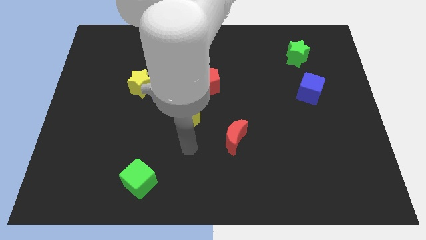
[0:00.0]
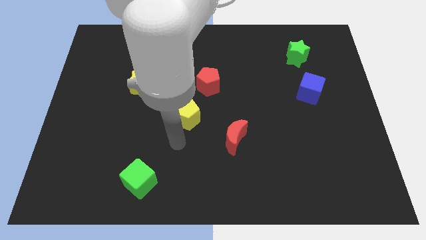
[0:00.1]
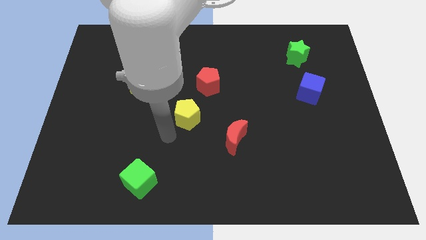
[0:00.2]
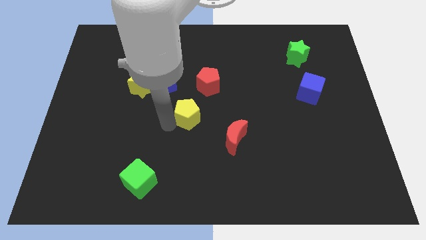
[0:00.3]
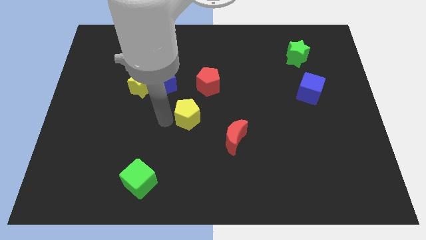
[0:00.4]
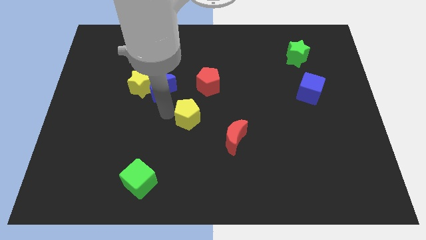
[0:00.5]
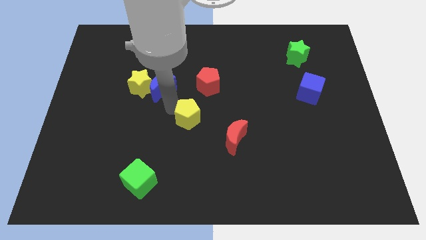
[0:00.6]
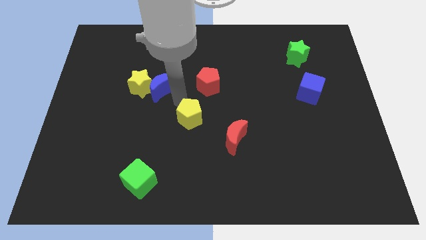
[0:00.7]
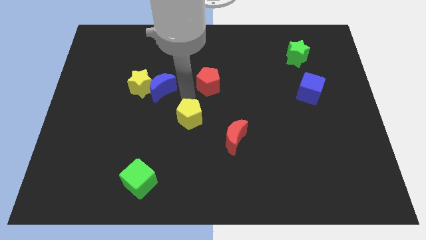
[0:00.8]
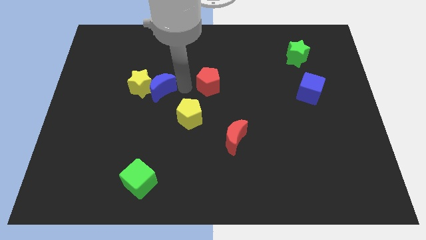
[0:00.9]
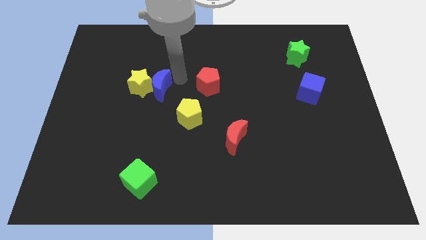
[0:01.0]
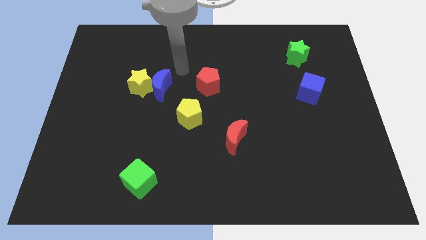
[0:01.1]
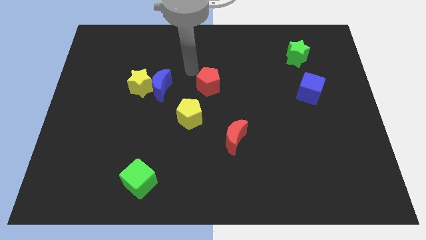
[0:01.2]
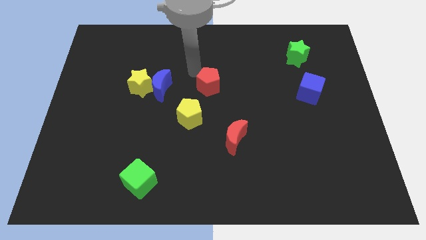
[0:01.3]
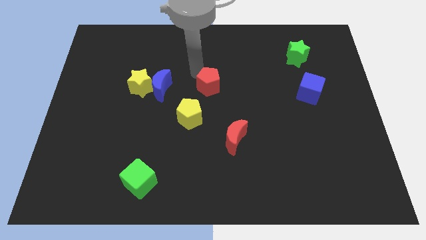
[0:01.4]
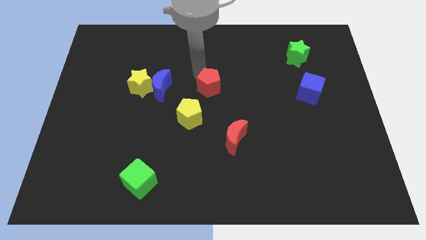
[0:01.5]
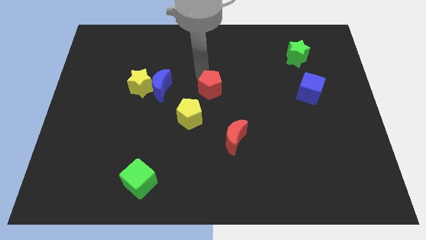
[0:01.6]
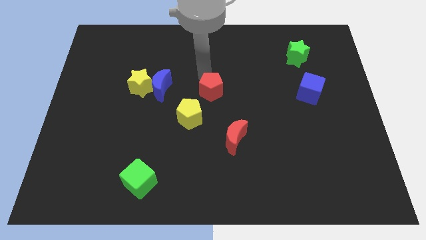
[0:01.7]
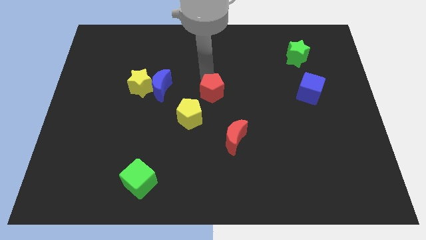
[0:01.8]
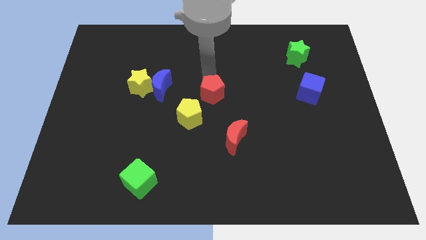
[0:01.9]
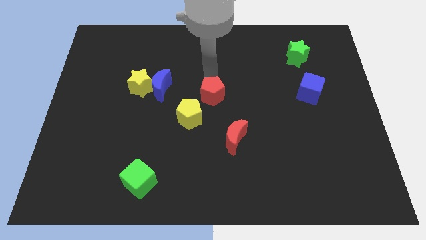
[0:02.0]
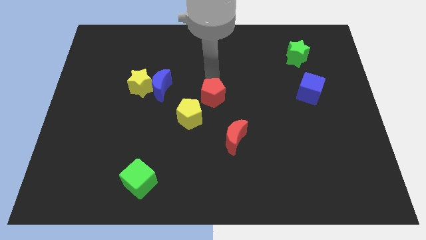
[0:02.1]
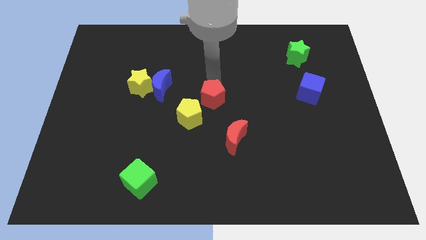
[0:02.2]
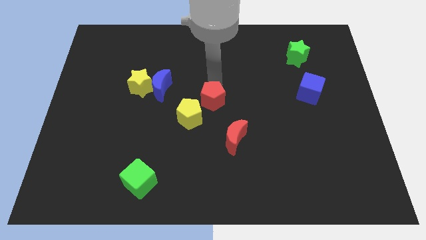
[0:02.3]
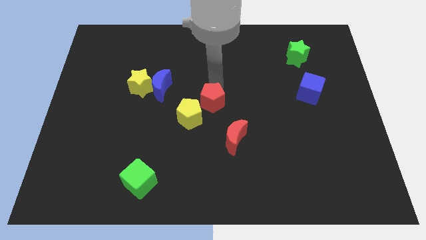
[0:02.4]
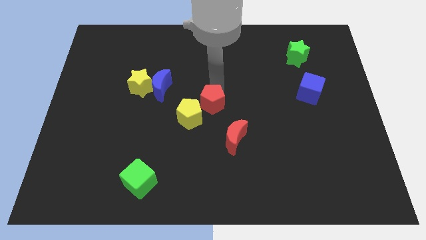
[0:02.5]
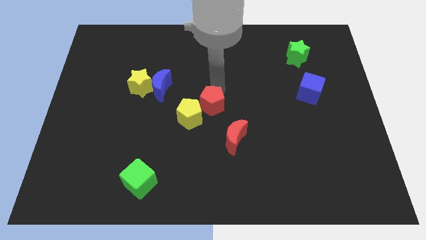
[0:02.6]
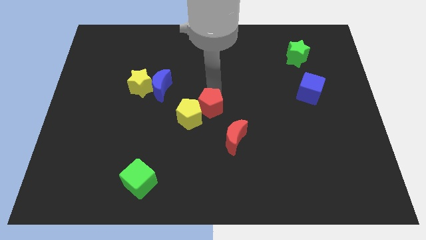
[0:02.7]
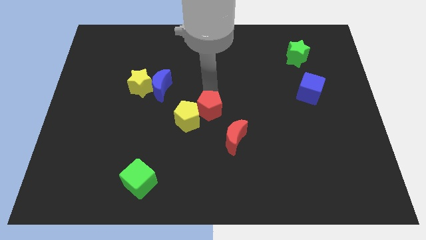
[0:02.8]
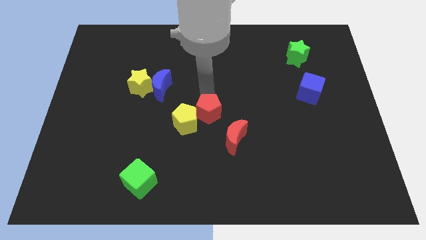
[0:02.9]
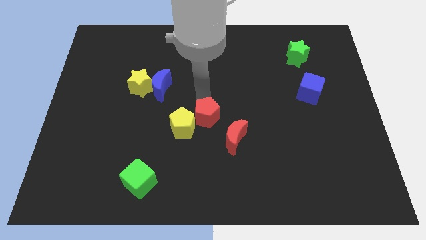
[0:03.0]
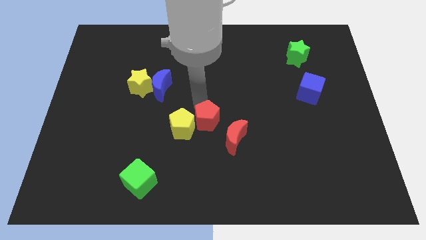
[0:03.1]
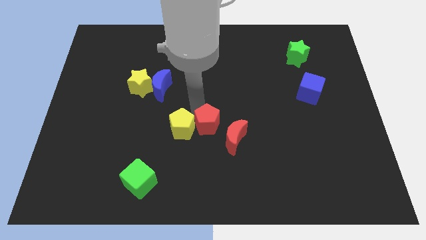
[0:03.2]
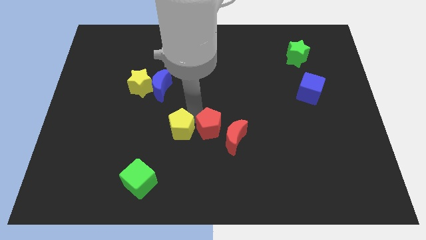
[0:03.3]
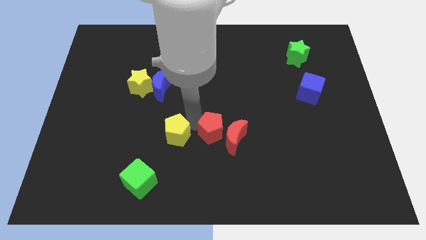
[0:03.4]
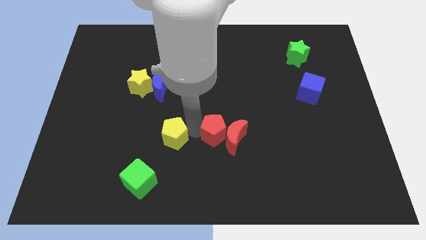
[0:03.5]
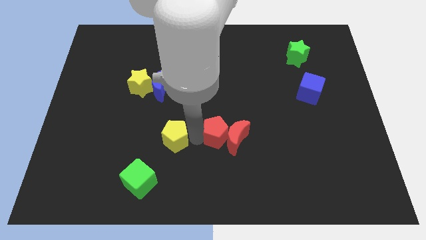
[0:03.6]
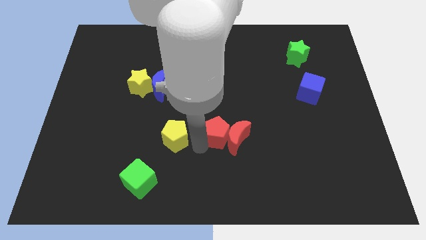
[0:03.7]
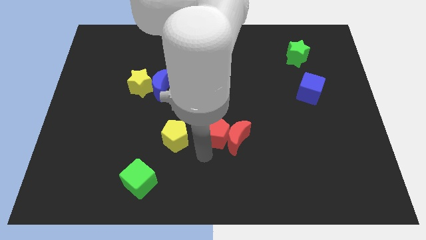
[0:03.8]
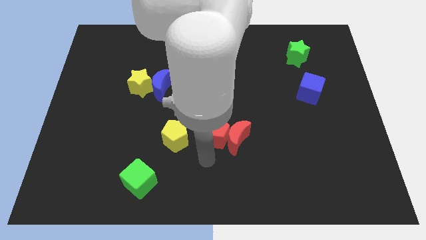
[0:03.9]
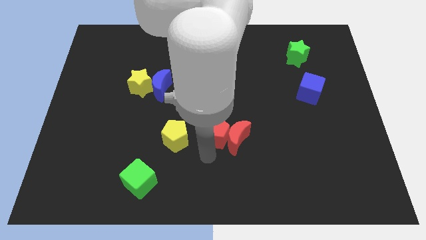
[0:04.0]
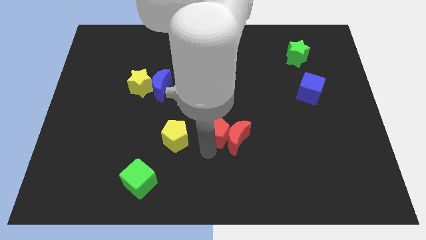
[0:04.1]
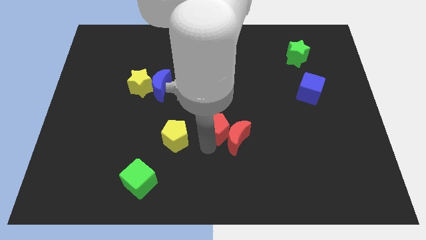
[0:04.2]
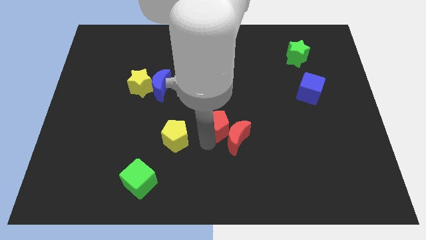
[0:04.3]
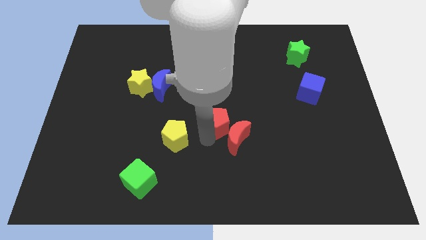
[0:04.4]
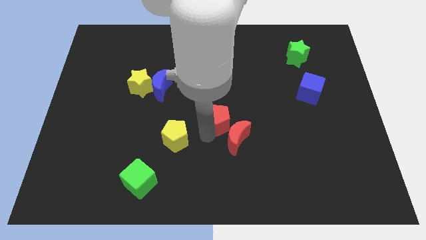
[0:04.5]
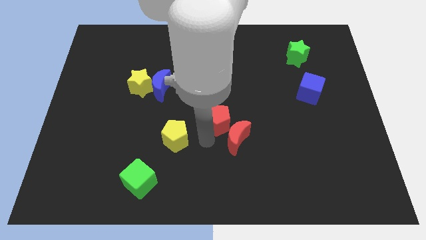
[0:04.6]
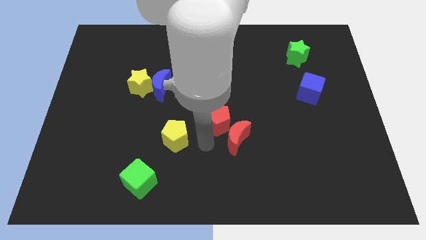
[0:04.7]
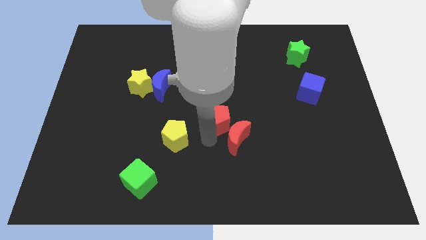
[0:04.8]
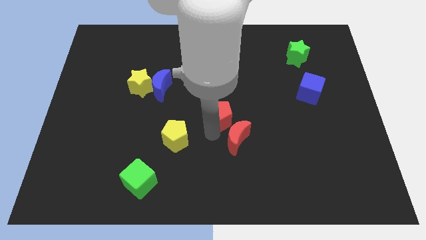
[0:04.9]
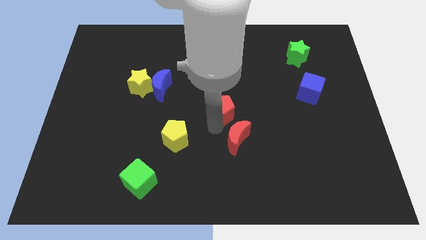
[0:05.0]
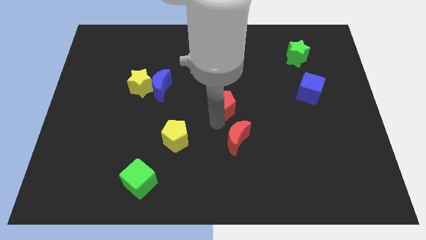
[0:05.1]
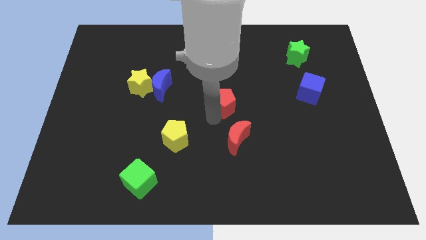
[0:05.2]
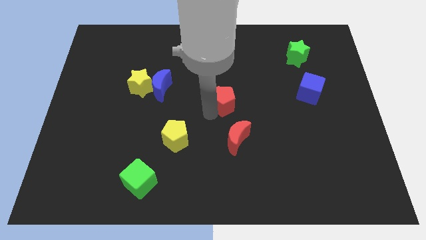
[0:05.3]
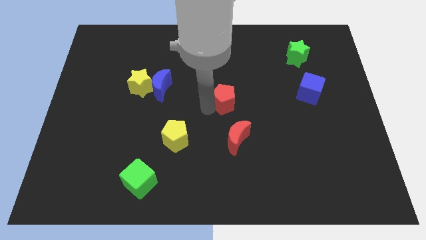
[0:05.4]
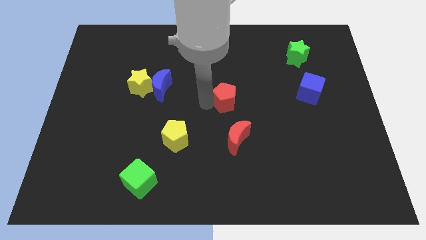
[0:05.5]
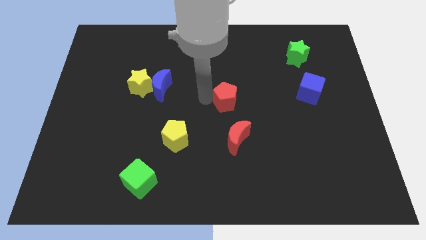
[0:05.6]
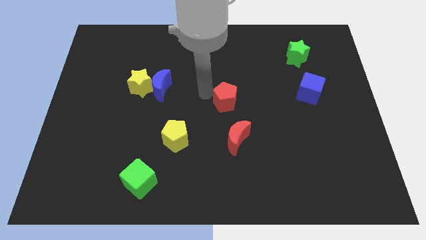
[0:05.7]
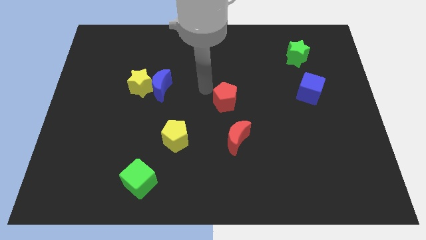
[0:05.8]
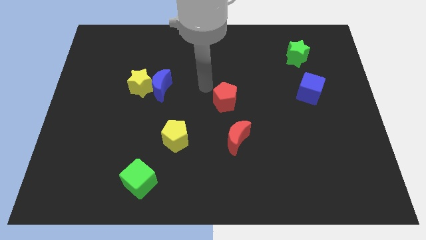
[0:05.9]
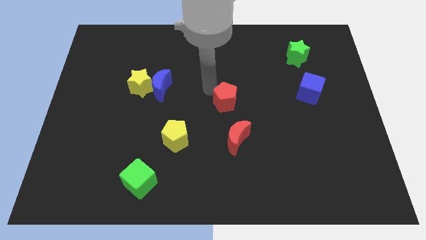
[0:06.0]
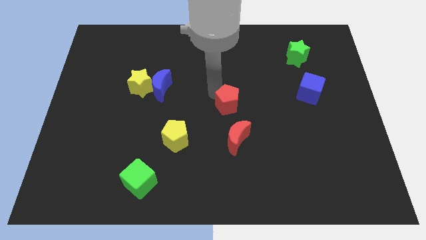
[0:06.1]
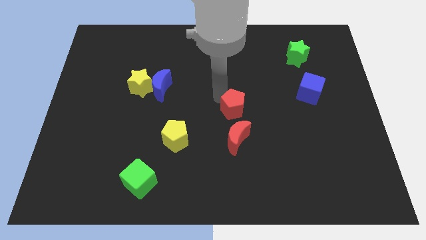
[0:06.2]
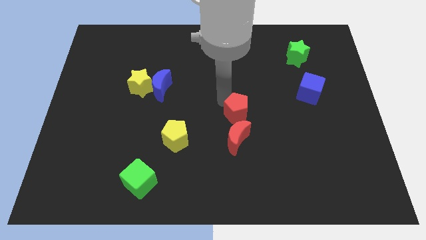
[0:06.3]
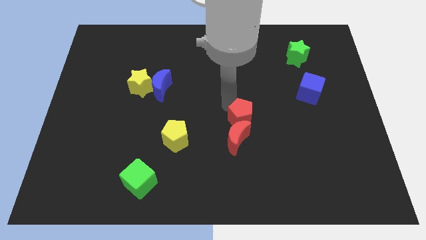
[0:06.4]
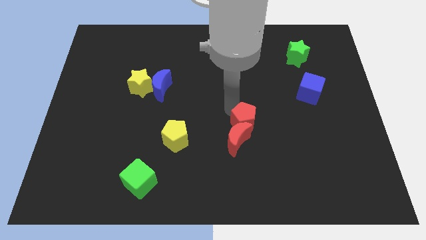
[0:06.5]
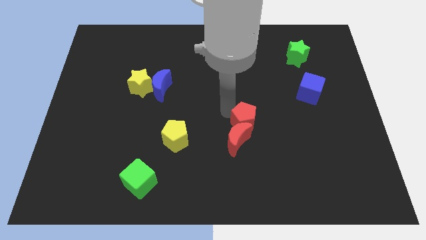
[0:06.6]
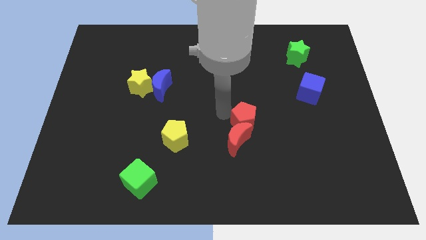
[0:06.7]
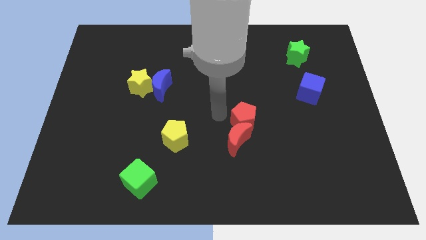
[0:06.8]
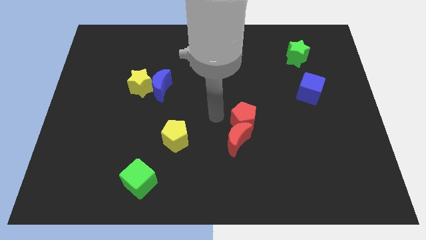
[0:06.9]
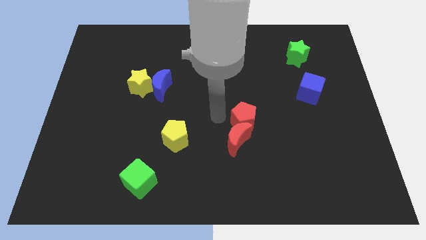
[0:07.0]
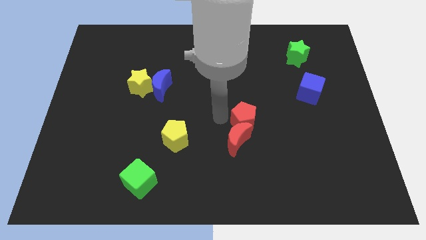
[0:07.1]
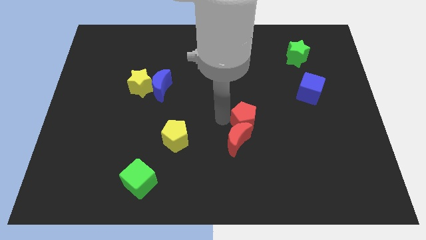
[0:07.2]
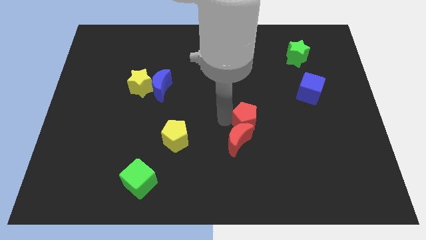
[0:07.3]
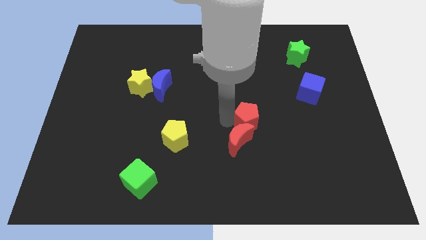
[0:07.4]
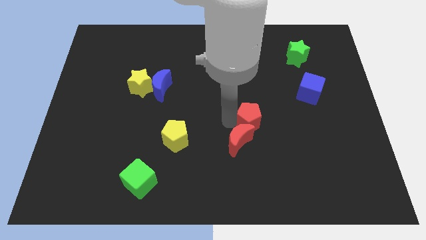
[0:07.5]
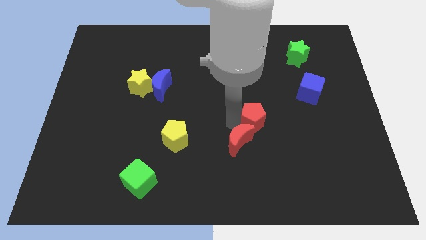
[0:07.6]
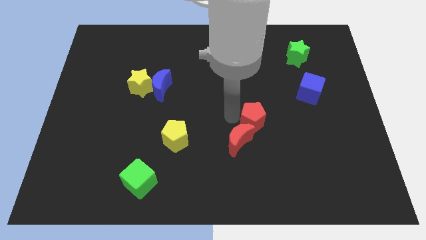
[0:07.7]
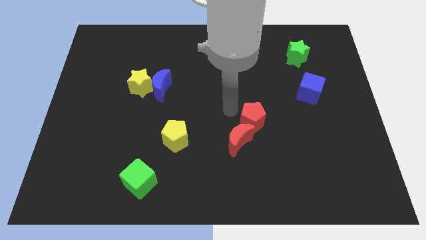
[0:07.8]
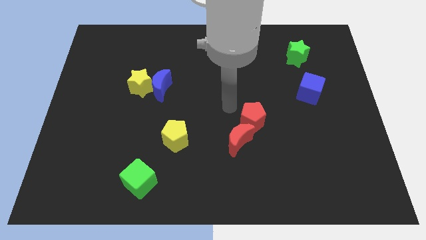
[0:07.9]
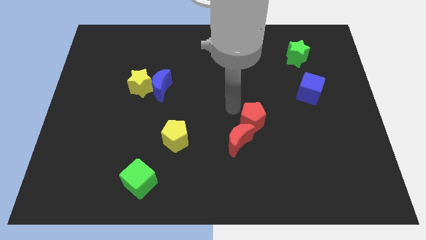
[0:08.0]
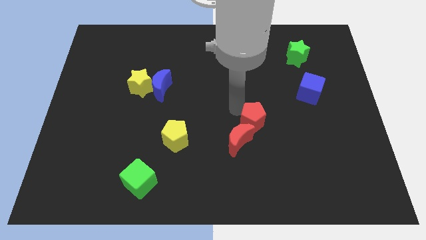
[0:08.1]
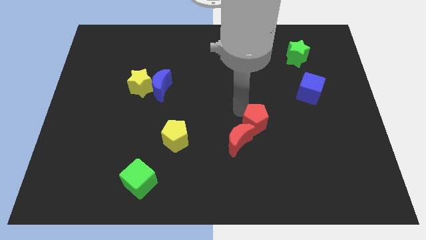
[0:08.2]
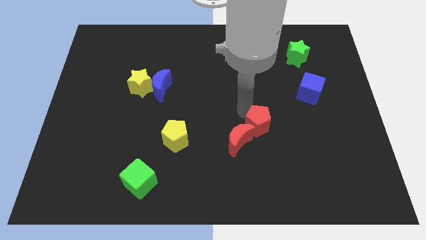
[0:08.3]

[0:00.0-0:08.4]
put the red pentagon right of the red moon
